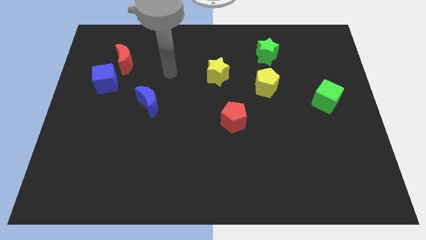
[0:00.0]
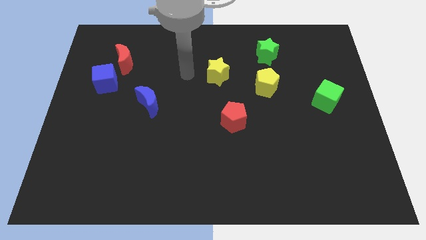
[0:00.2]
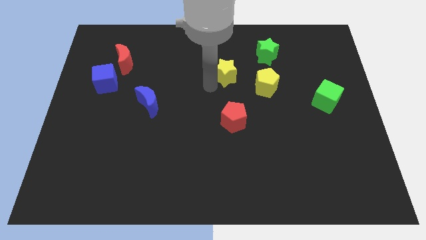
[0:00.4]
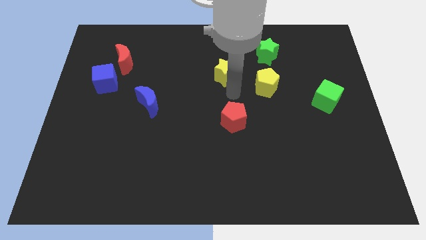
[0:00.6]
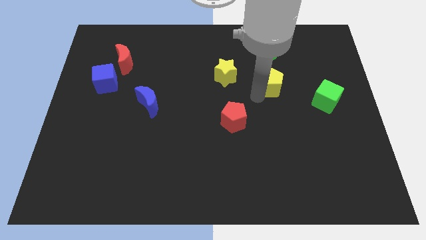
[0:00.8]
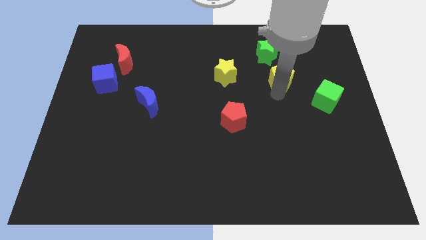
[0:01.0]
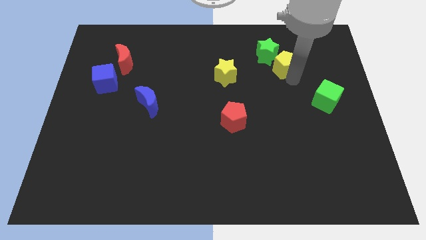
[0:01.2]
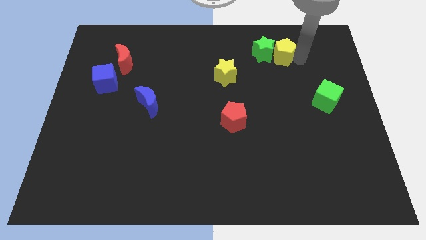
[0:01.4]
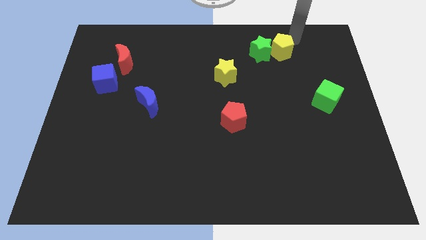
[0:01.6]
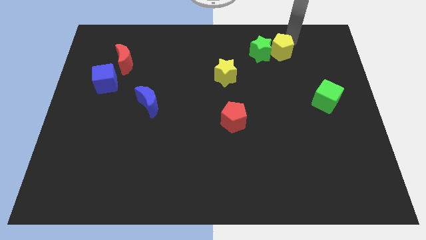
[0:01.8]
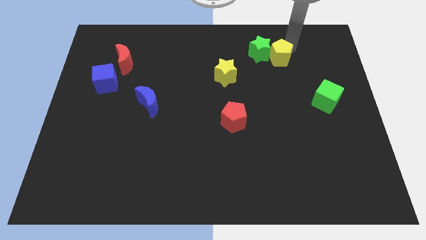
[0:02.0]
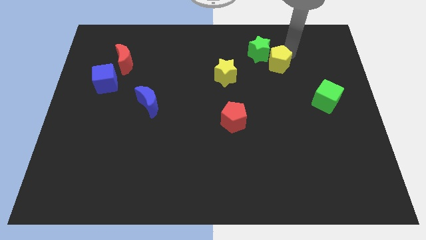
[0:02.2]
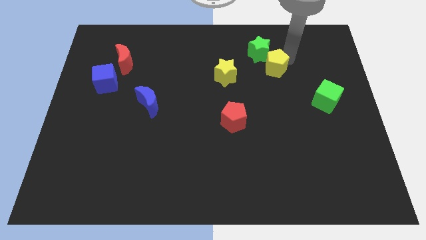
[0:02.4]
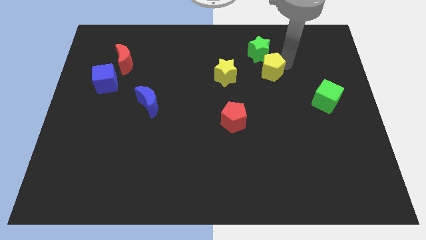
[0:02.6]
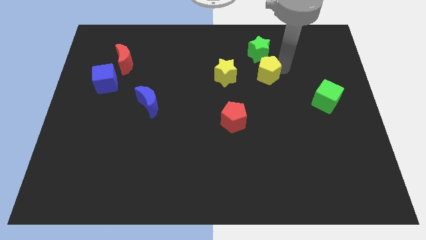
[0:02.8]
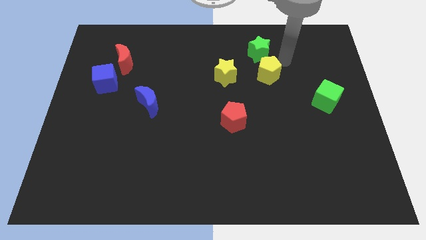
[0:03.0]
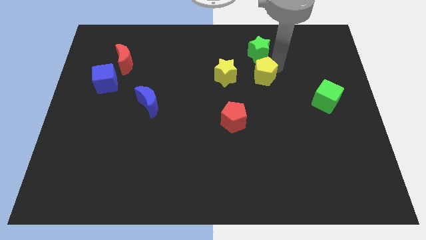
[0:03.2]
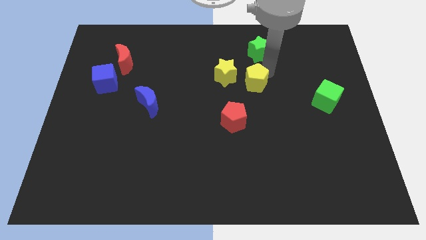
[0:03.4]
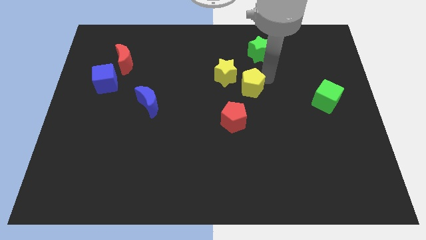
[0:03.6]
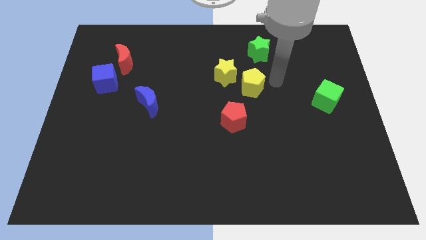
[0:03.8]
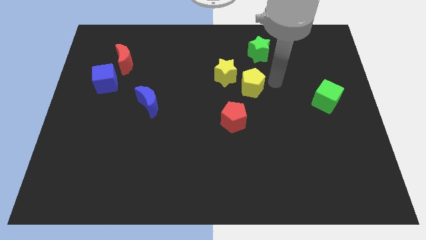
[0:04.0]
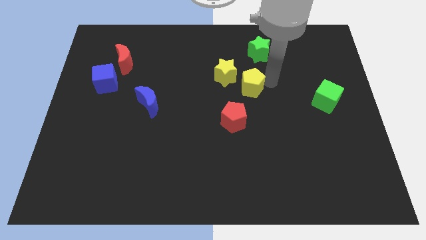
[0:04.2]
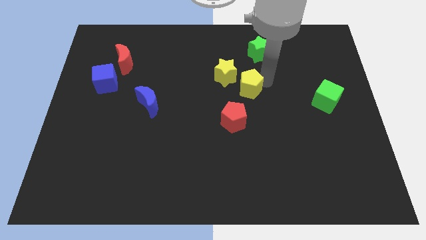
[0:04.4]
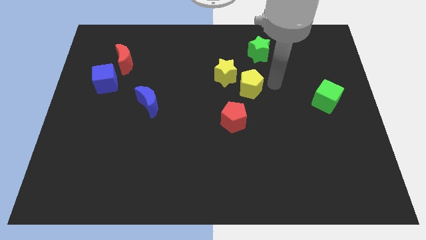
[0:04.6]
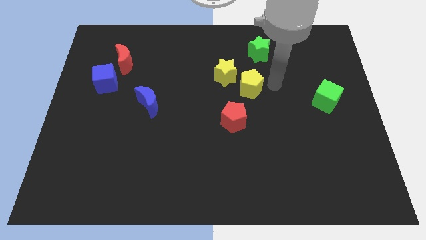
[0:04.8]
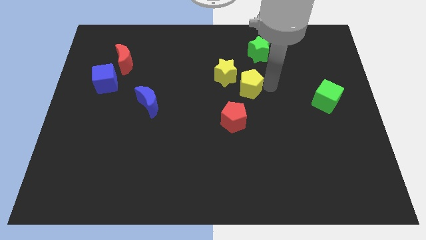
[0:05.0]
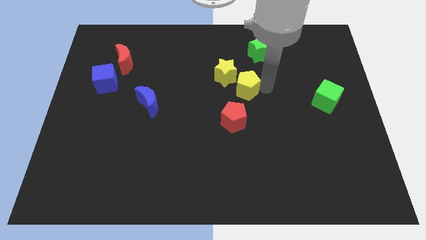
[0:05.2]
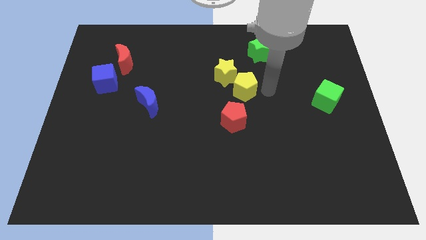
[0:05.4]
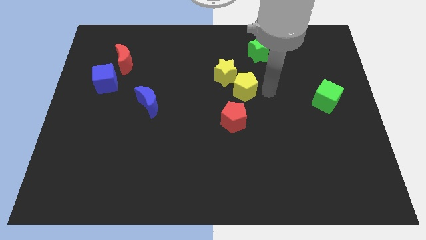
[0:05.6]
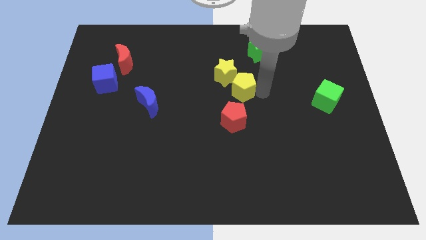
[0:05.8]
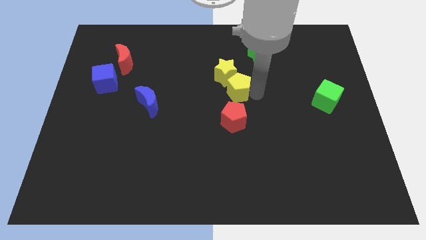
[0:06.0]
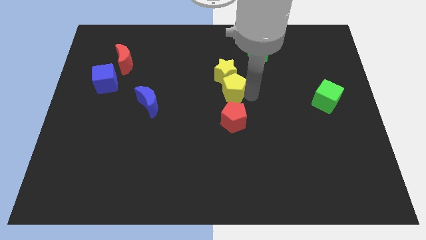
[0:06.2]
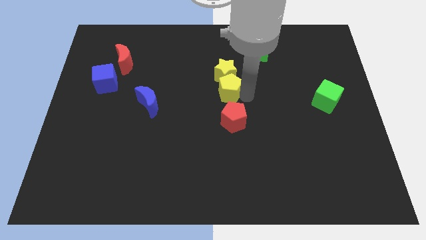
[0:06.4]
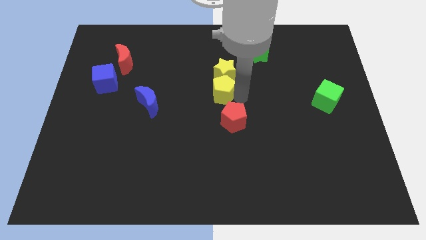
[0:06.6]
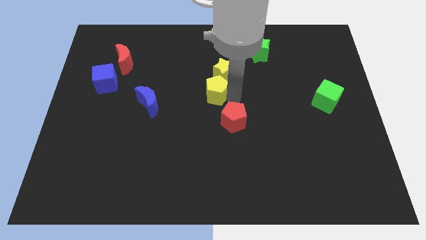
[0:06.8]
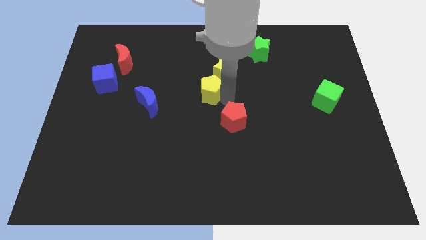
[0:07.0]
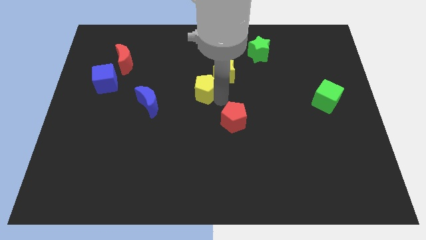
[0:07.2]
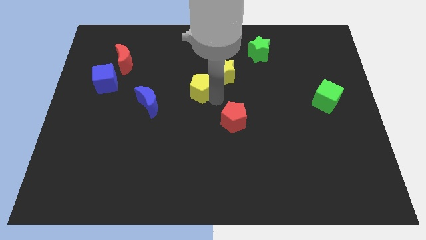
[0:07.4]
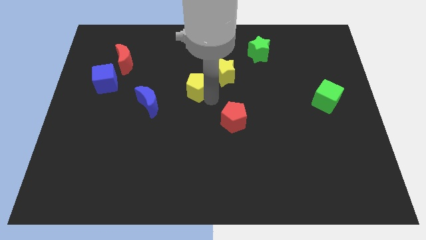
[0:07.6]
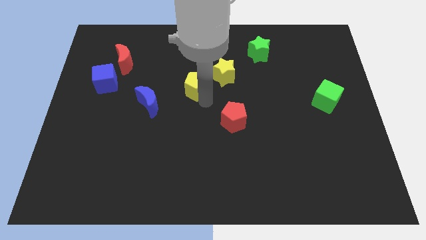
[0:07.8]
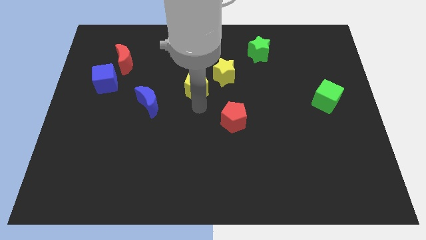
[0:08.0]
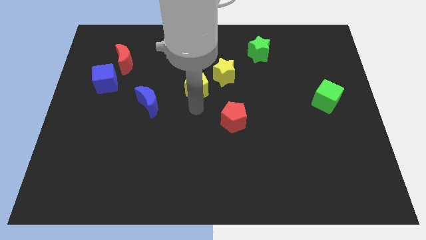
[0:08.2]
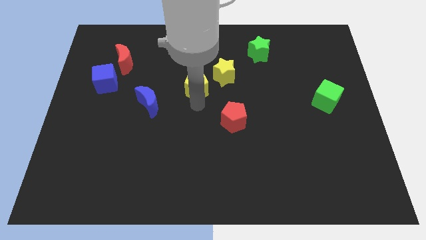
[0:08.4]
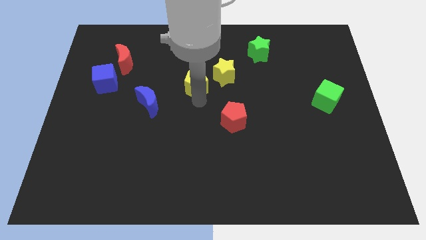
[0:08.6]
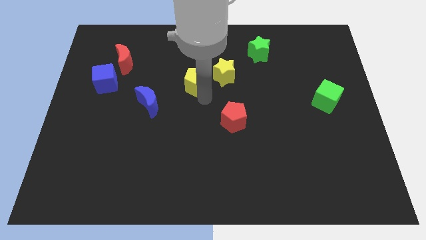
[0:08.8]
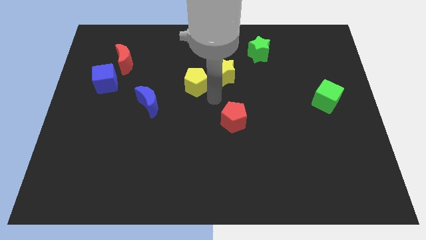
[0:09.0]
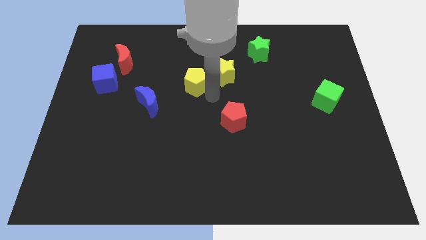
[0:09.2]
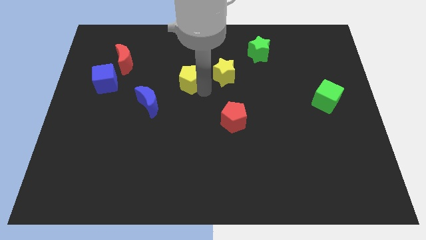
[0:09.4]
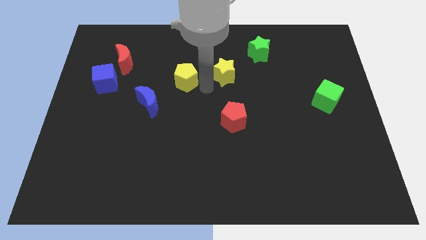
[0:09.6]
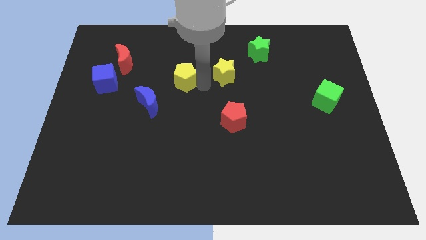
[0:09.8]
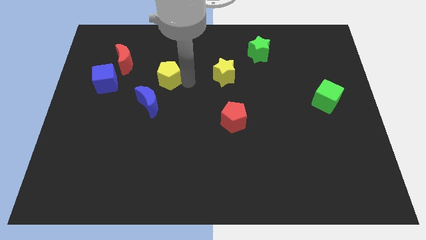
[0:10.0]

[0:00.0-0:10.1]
move the yellow pentagon to the top of the blue moon

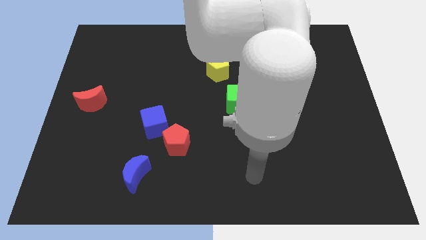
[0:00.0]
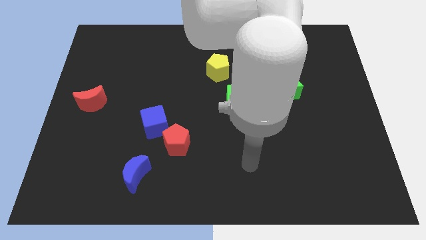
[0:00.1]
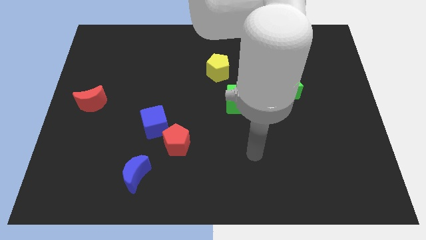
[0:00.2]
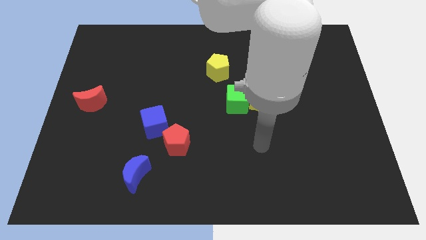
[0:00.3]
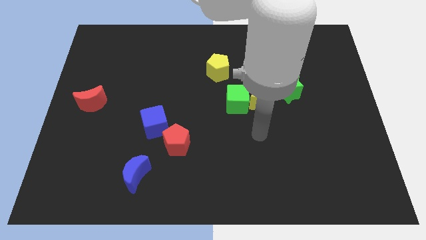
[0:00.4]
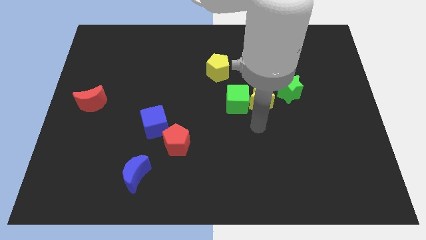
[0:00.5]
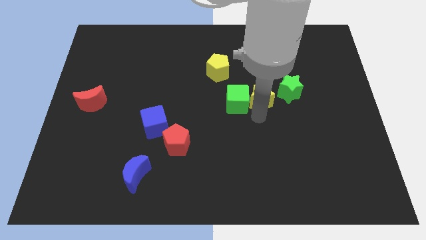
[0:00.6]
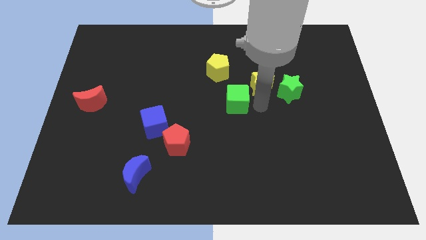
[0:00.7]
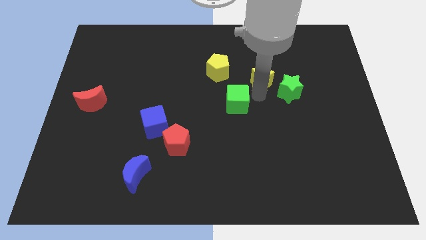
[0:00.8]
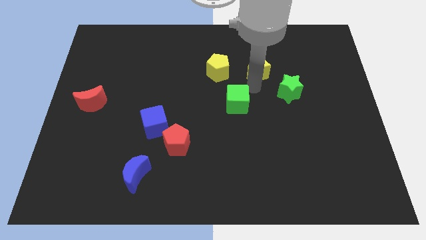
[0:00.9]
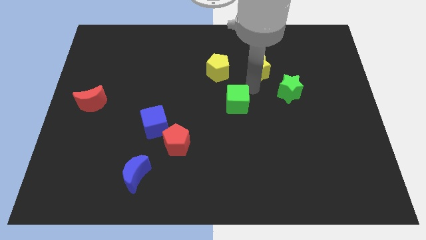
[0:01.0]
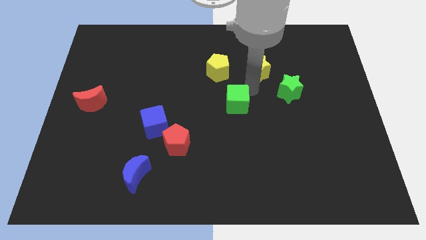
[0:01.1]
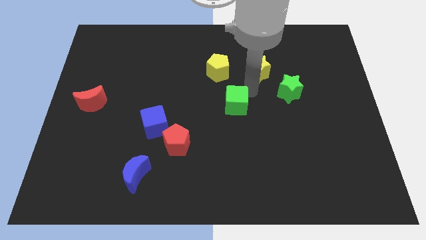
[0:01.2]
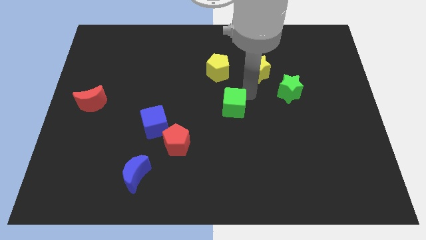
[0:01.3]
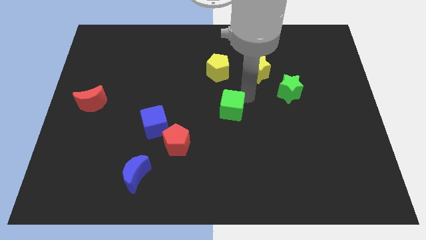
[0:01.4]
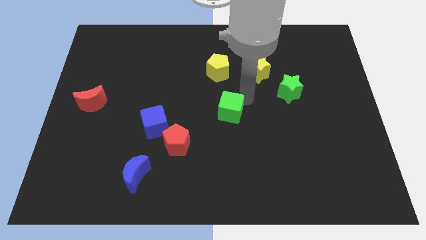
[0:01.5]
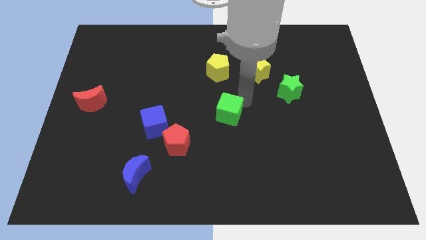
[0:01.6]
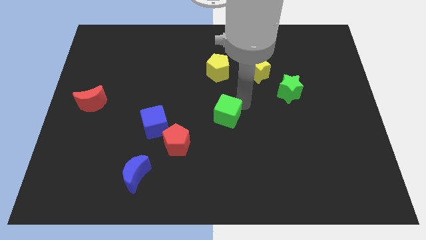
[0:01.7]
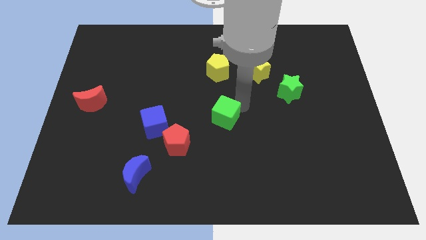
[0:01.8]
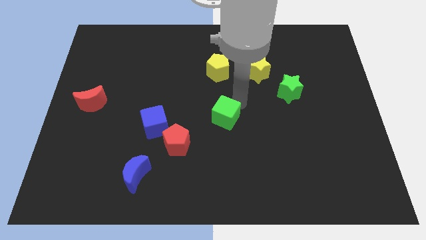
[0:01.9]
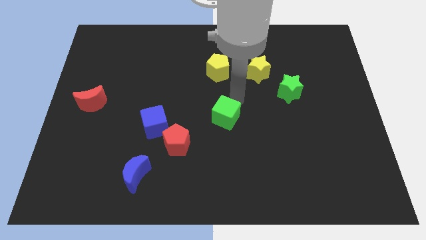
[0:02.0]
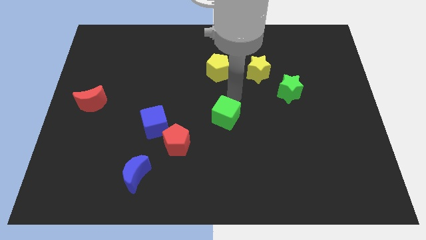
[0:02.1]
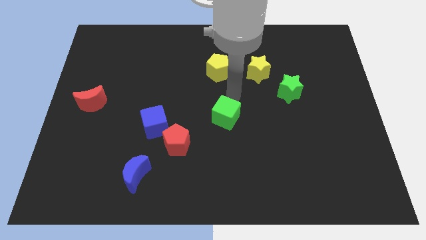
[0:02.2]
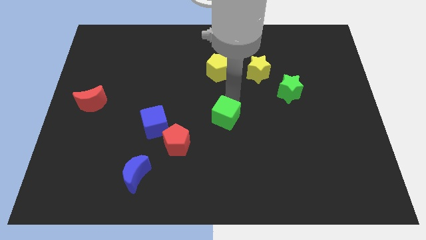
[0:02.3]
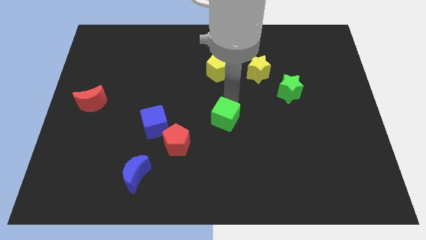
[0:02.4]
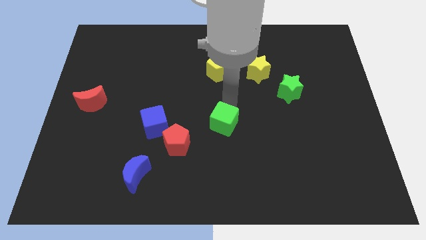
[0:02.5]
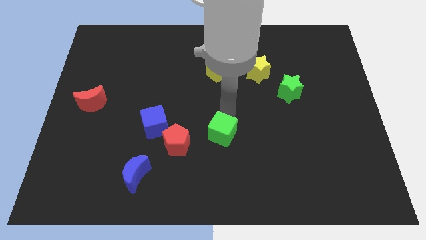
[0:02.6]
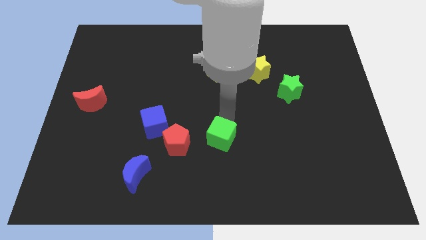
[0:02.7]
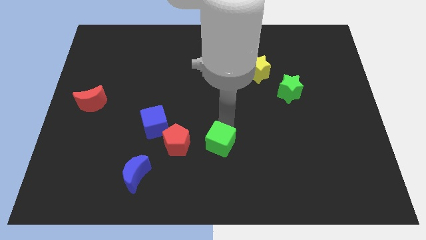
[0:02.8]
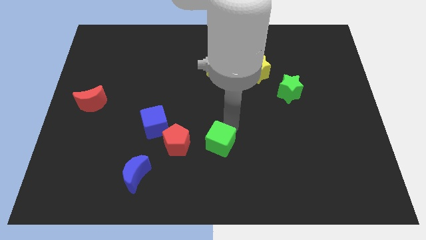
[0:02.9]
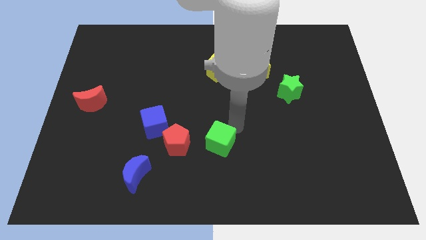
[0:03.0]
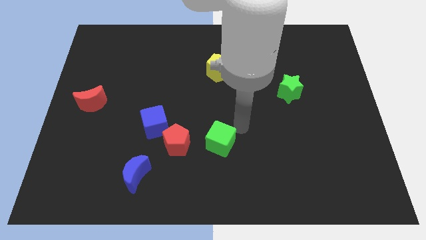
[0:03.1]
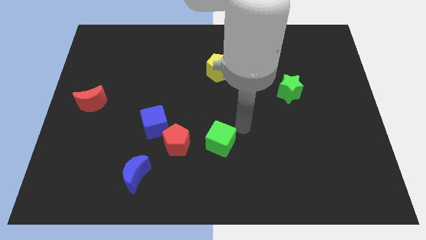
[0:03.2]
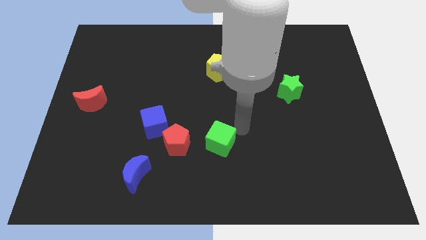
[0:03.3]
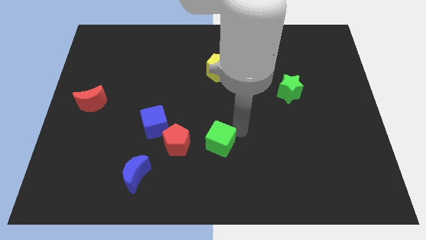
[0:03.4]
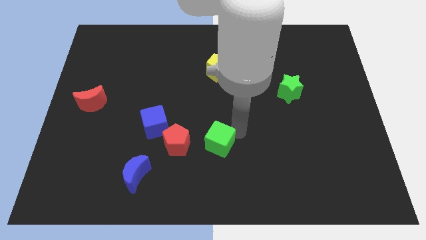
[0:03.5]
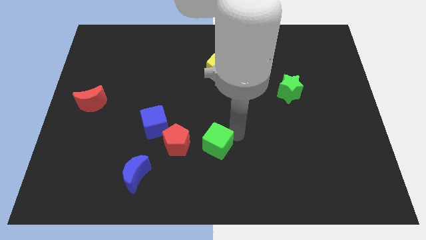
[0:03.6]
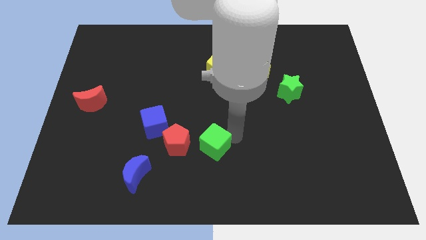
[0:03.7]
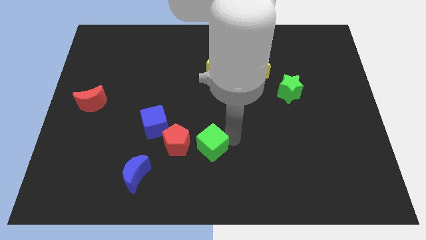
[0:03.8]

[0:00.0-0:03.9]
push the green cube to the bottom right side of the red pentagon
